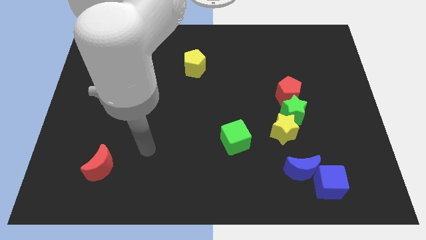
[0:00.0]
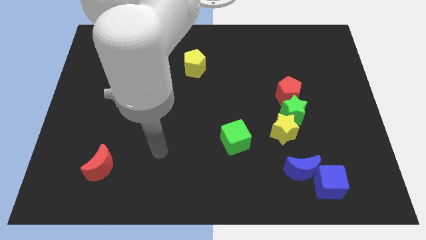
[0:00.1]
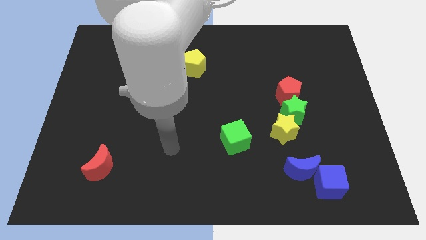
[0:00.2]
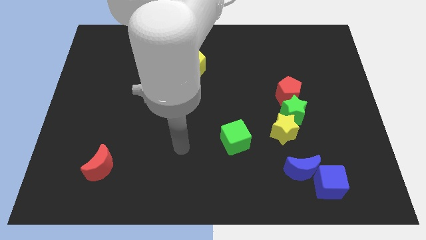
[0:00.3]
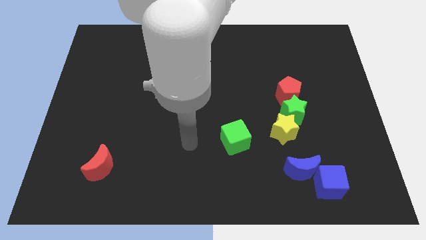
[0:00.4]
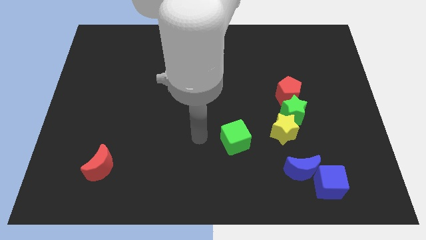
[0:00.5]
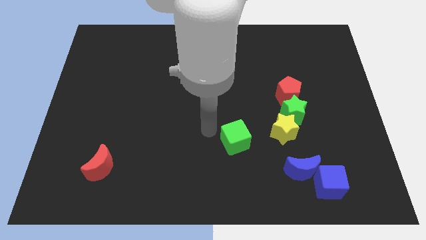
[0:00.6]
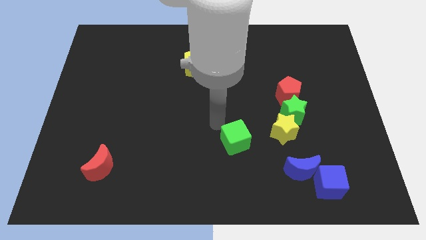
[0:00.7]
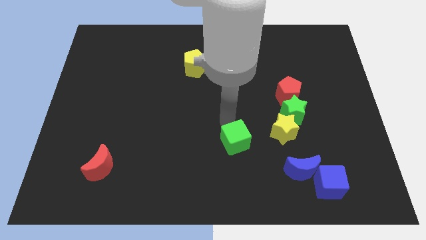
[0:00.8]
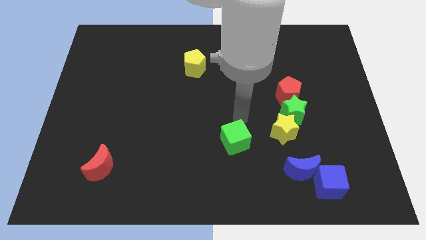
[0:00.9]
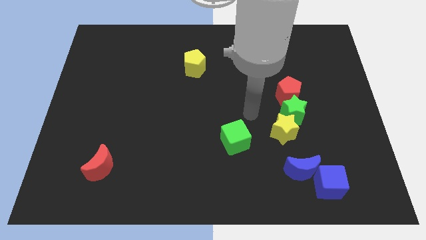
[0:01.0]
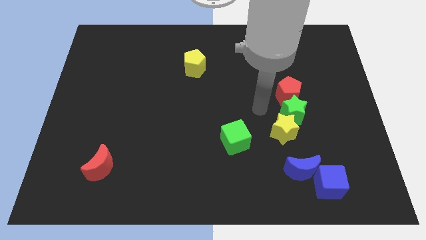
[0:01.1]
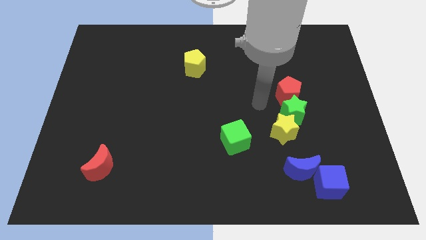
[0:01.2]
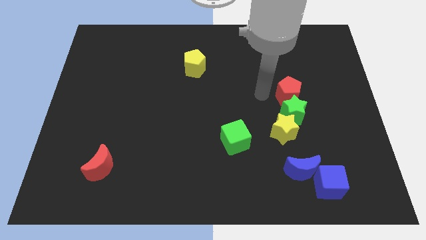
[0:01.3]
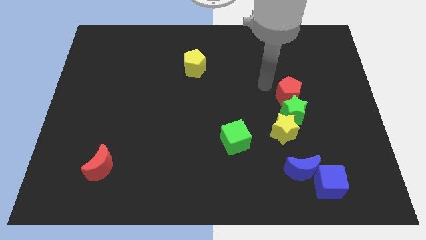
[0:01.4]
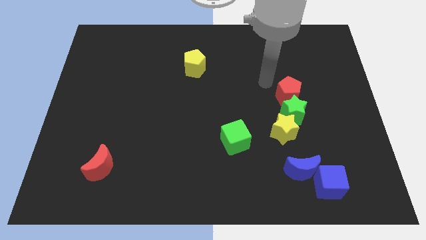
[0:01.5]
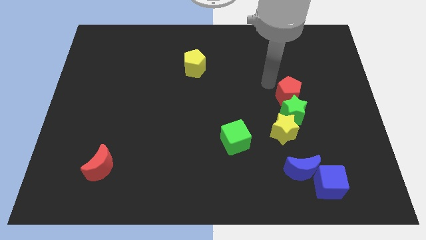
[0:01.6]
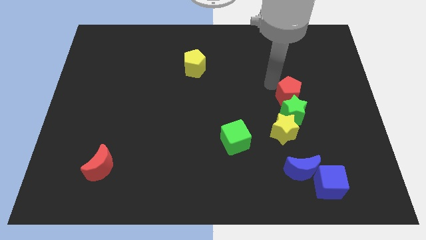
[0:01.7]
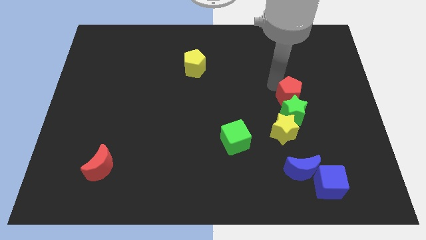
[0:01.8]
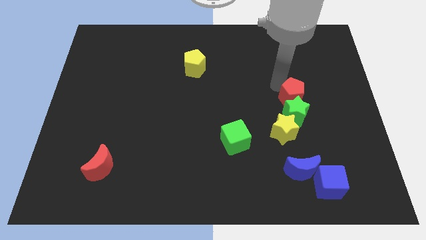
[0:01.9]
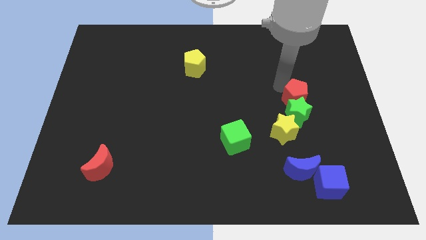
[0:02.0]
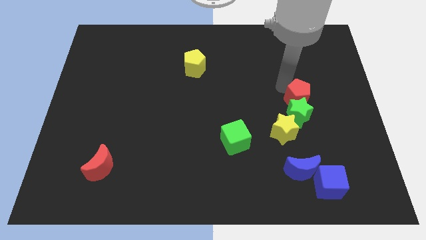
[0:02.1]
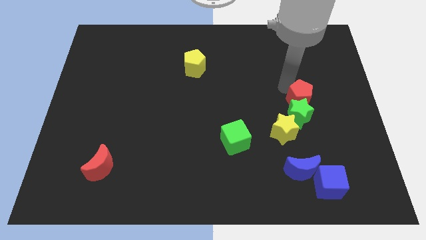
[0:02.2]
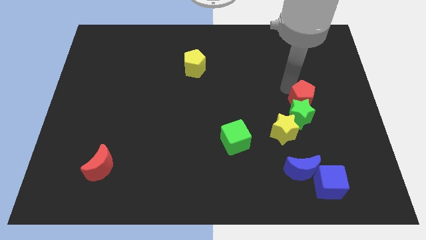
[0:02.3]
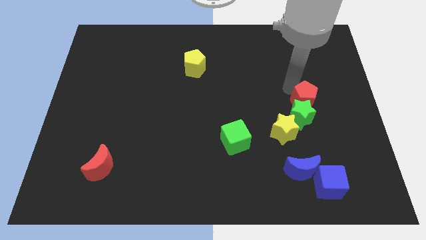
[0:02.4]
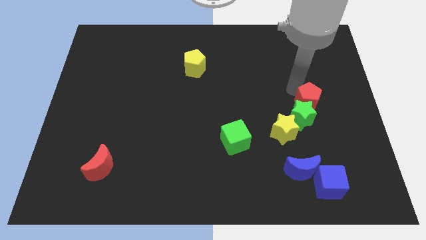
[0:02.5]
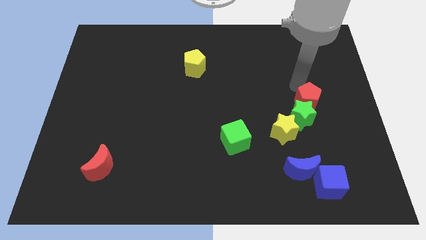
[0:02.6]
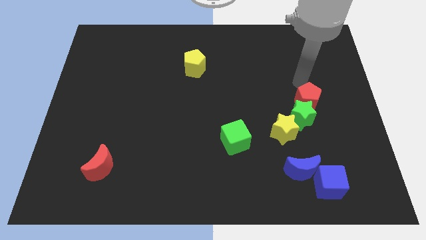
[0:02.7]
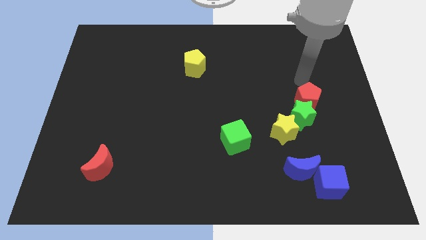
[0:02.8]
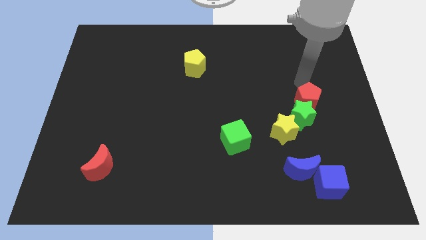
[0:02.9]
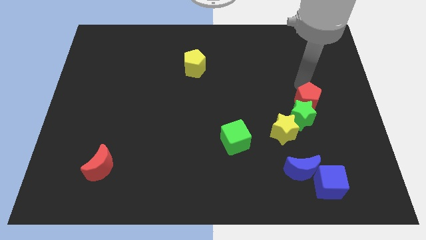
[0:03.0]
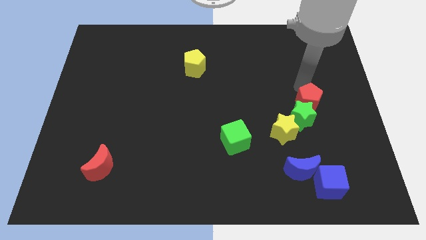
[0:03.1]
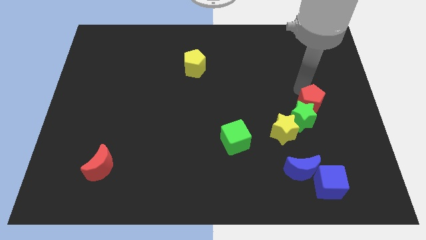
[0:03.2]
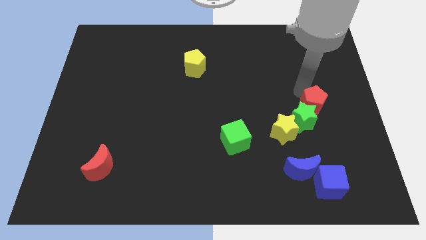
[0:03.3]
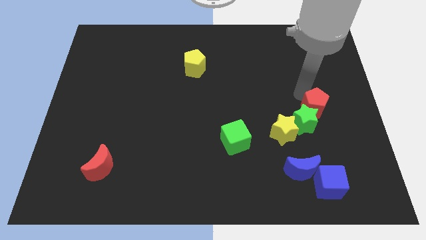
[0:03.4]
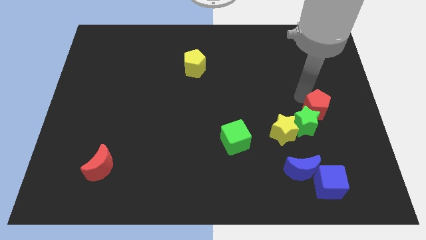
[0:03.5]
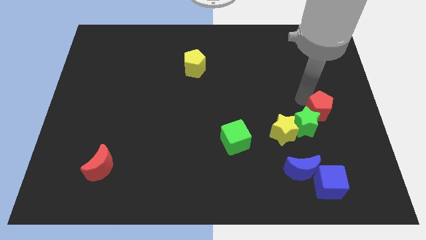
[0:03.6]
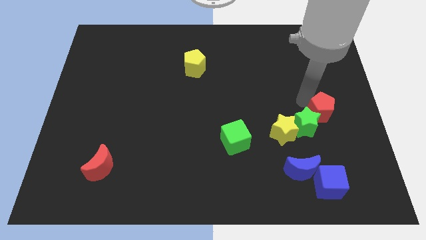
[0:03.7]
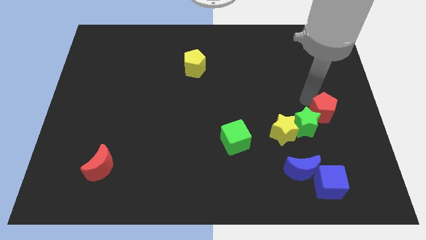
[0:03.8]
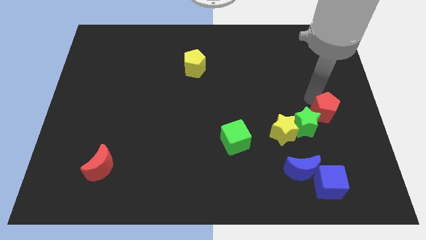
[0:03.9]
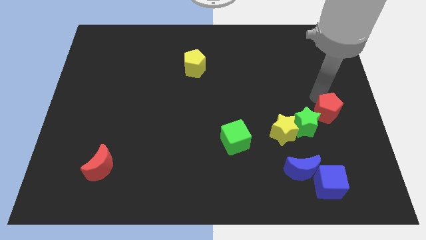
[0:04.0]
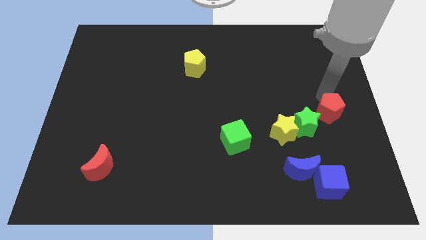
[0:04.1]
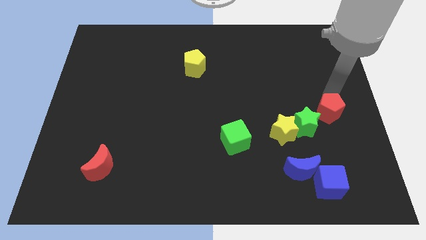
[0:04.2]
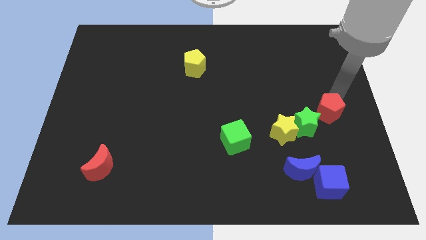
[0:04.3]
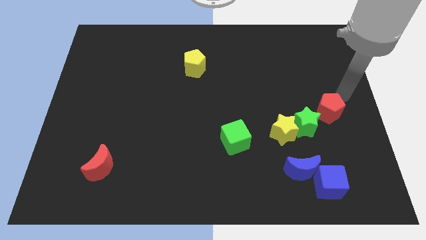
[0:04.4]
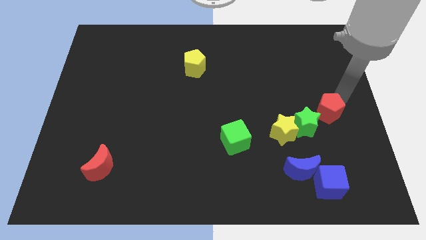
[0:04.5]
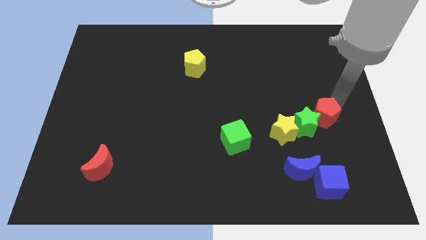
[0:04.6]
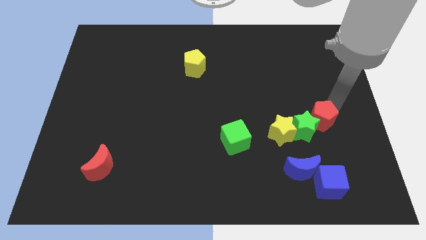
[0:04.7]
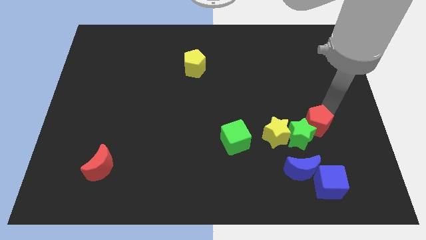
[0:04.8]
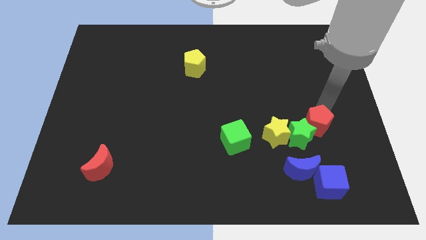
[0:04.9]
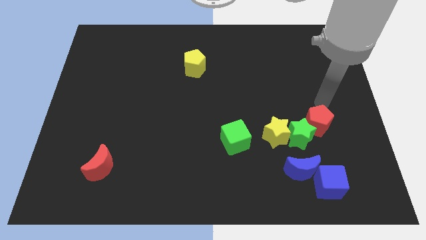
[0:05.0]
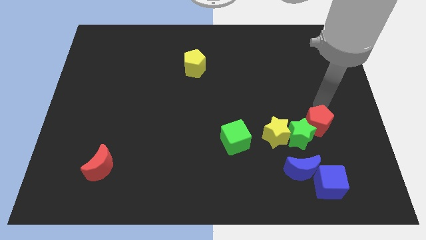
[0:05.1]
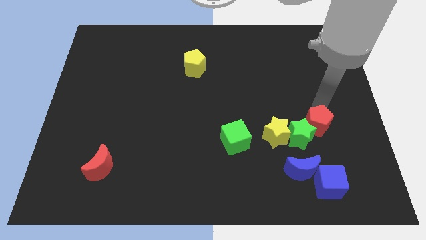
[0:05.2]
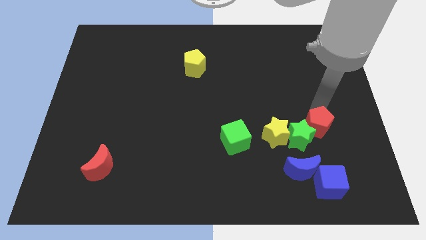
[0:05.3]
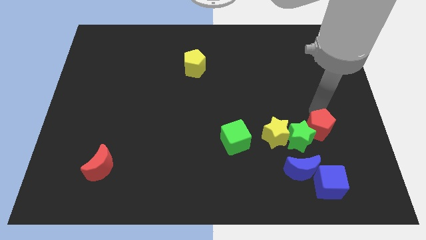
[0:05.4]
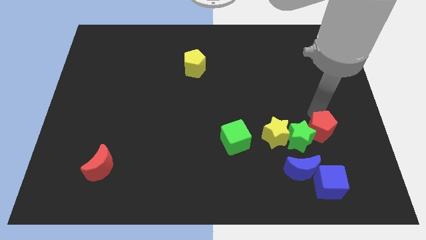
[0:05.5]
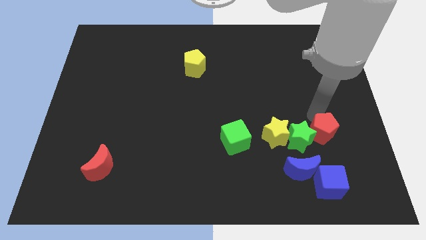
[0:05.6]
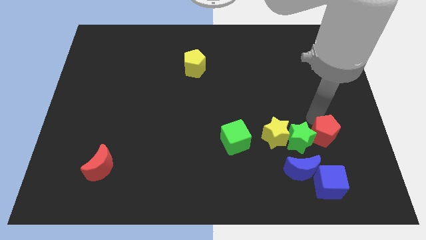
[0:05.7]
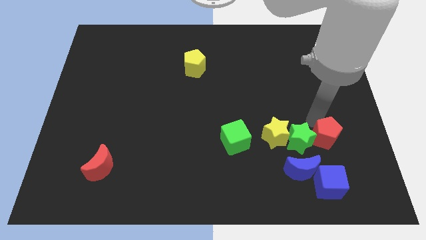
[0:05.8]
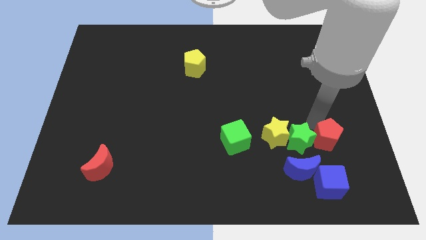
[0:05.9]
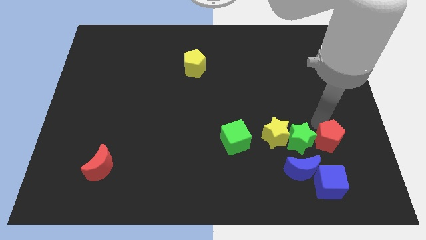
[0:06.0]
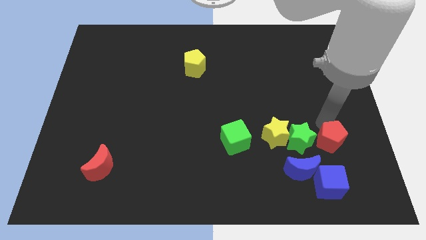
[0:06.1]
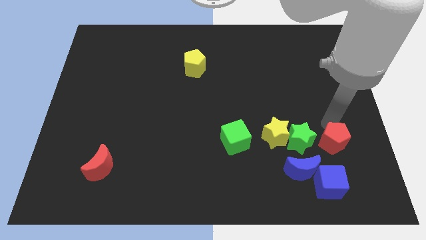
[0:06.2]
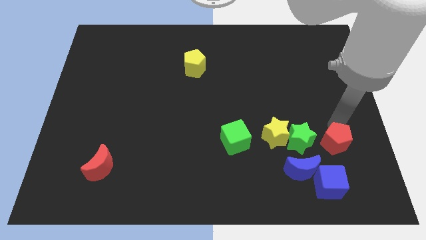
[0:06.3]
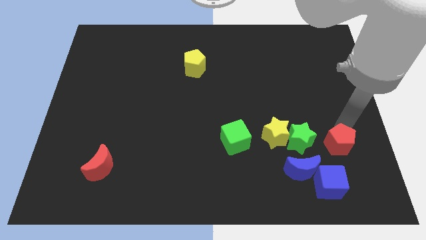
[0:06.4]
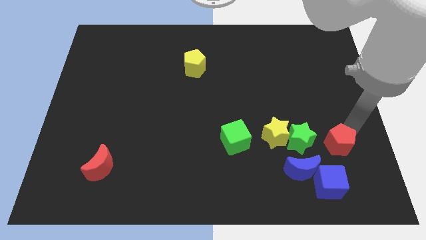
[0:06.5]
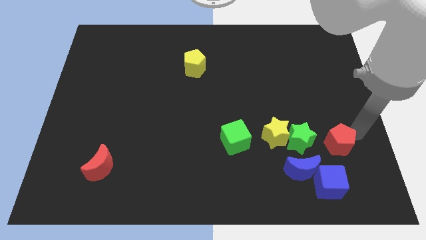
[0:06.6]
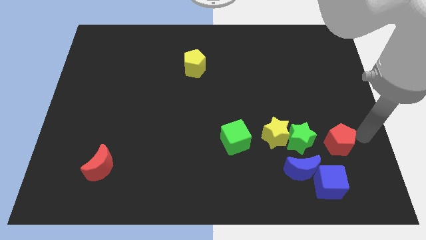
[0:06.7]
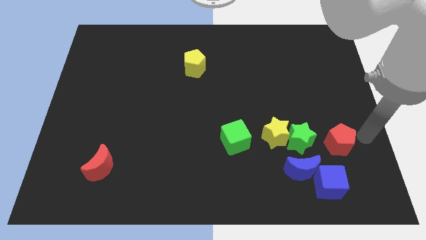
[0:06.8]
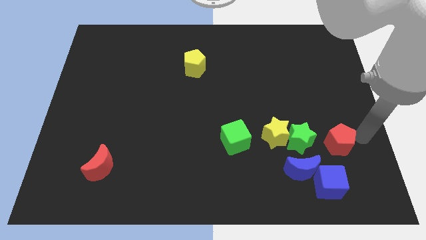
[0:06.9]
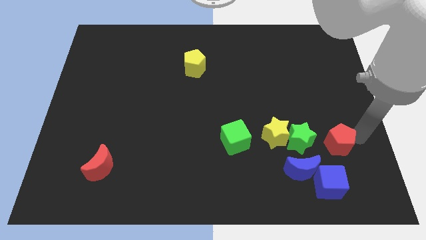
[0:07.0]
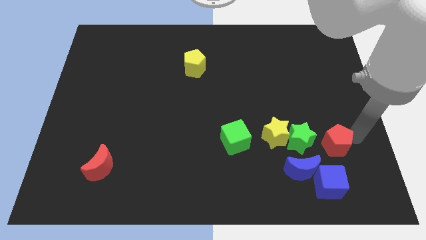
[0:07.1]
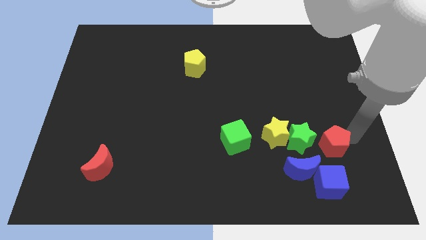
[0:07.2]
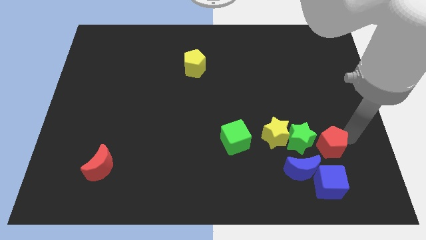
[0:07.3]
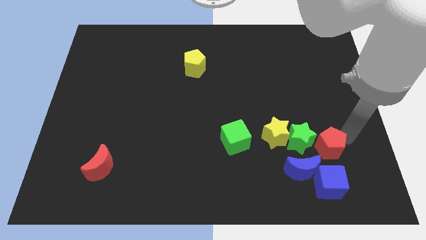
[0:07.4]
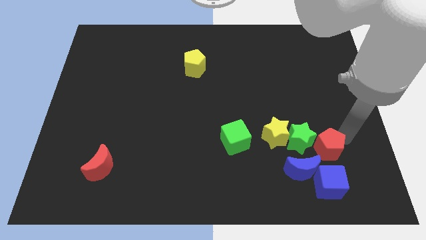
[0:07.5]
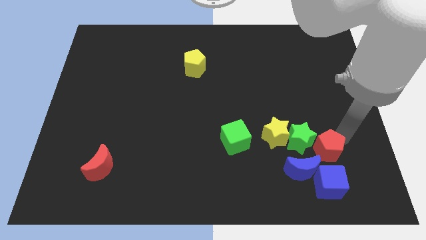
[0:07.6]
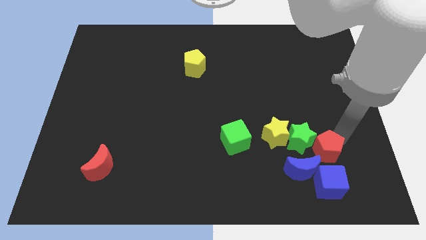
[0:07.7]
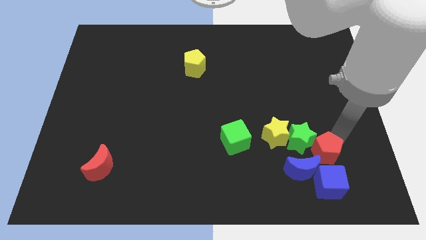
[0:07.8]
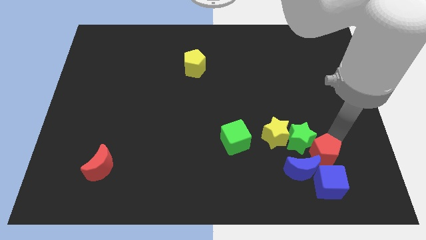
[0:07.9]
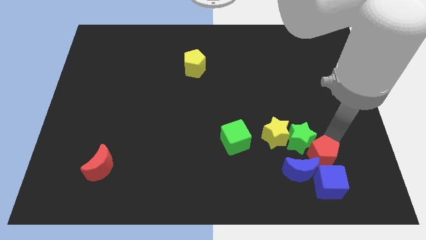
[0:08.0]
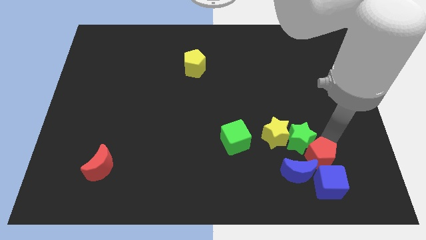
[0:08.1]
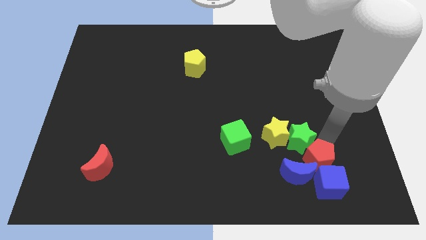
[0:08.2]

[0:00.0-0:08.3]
put the red pentagon to the blue moon
